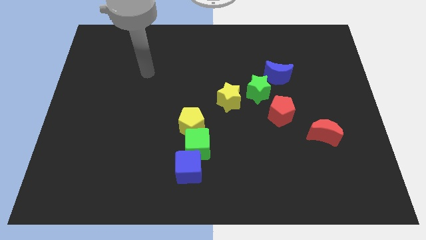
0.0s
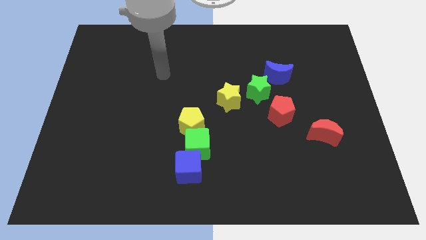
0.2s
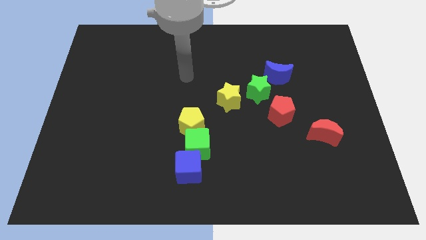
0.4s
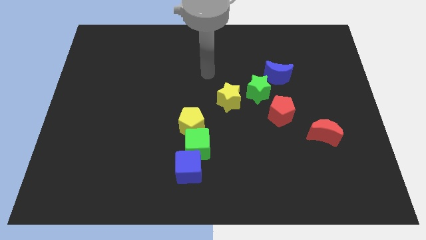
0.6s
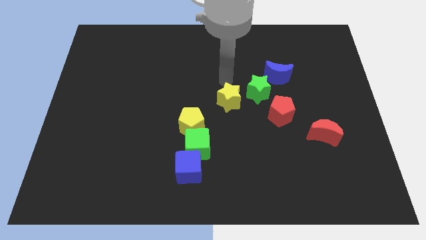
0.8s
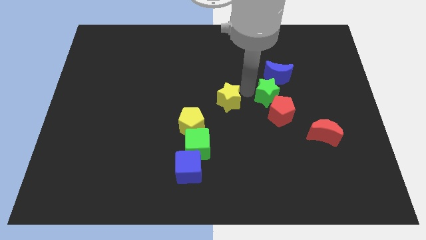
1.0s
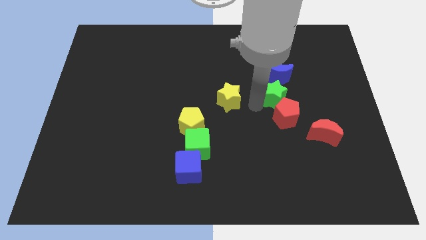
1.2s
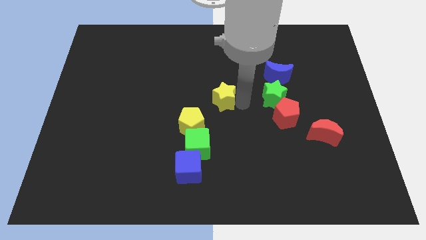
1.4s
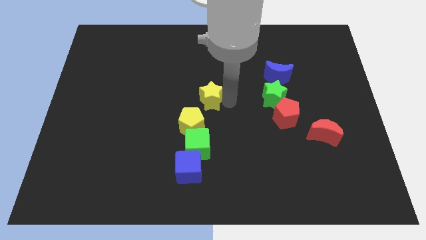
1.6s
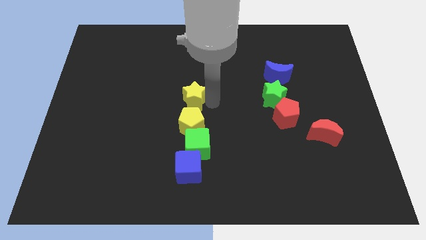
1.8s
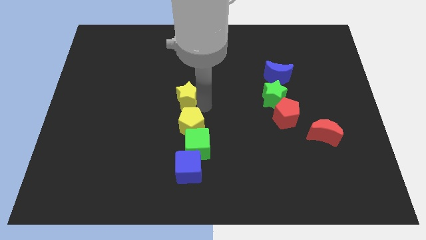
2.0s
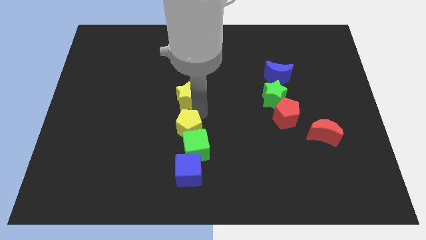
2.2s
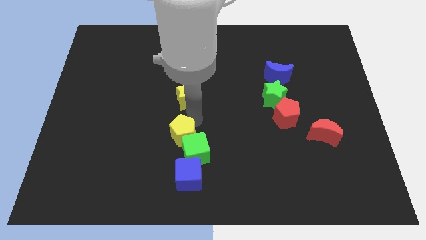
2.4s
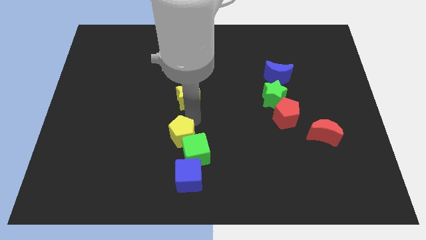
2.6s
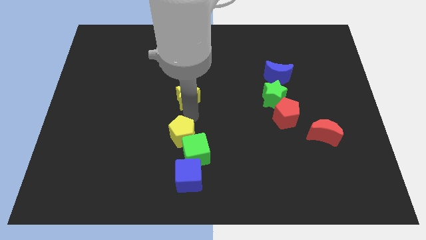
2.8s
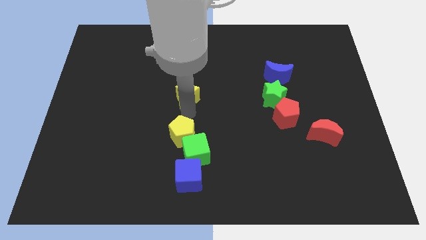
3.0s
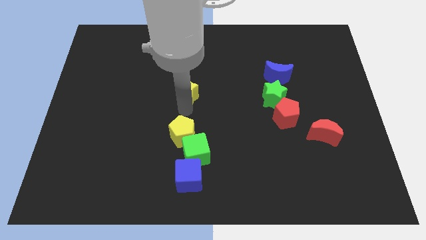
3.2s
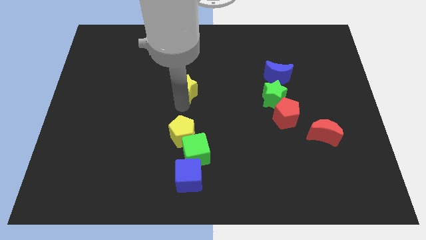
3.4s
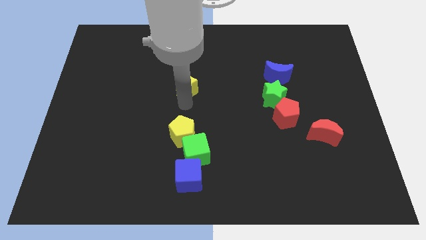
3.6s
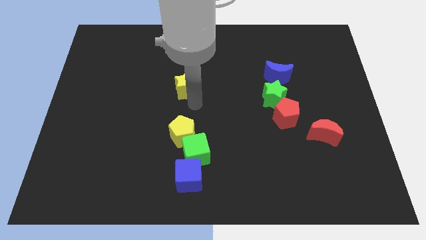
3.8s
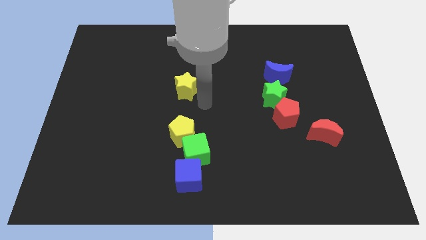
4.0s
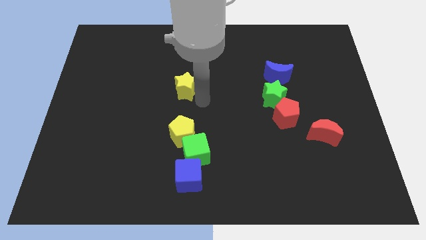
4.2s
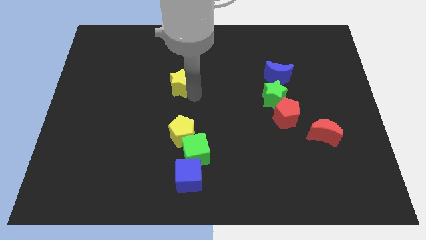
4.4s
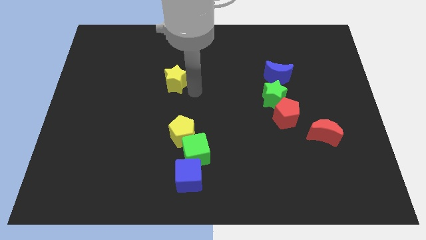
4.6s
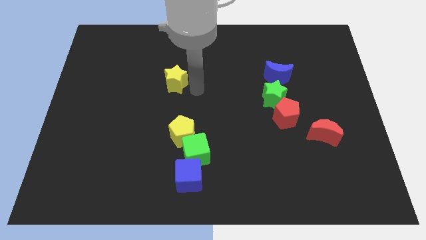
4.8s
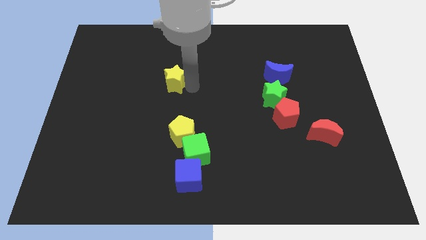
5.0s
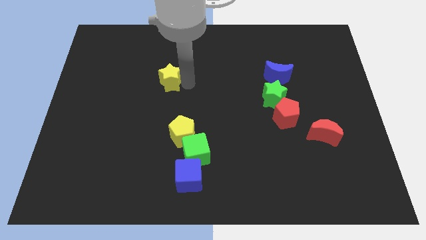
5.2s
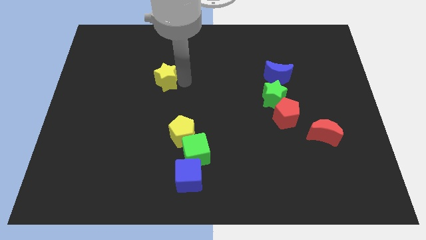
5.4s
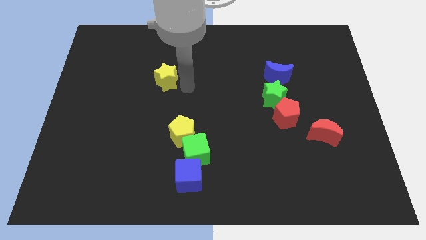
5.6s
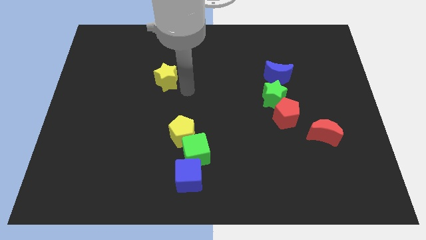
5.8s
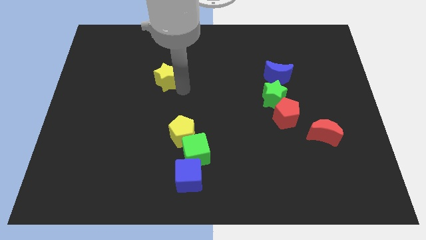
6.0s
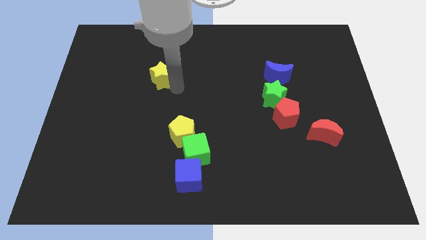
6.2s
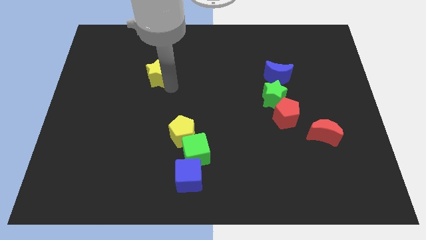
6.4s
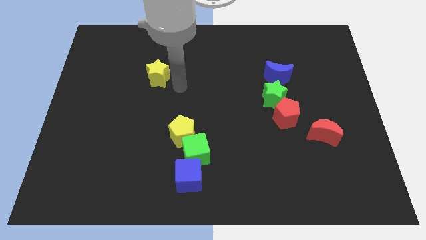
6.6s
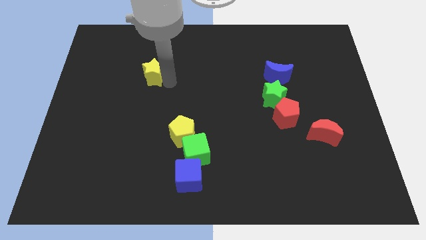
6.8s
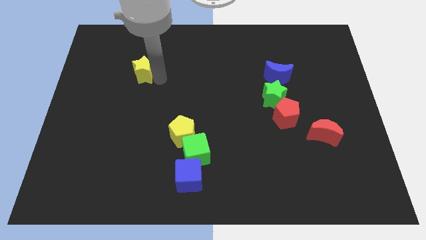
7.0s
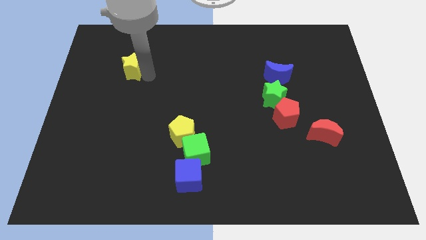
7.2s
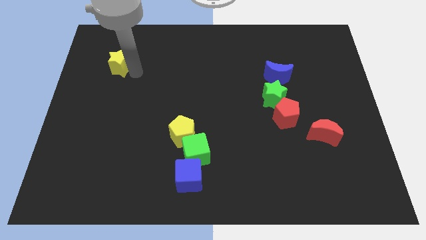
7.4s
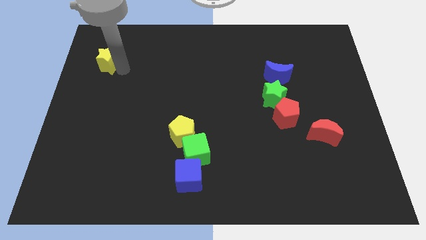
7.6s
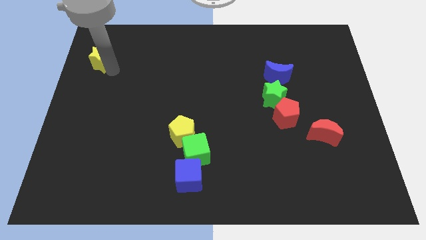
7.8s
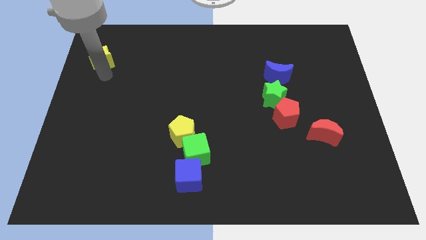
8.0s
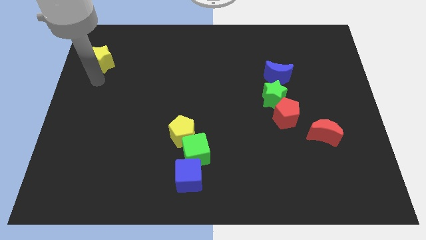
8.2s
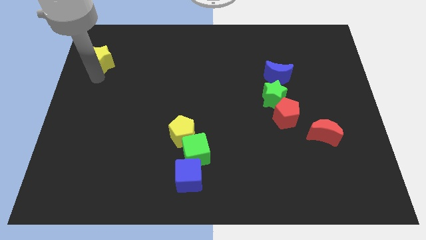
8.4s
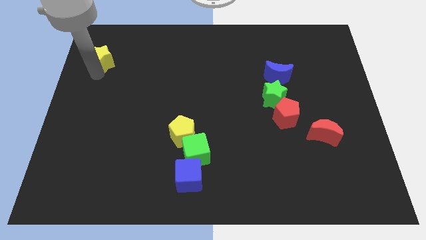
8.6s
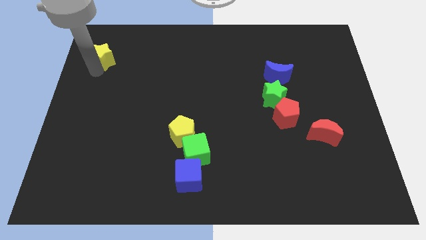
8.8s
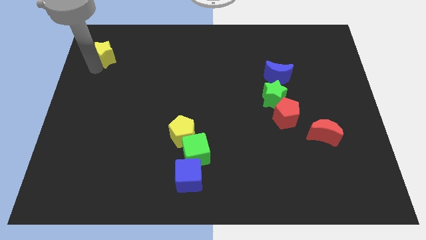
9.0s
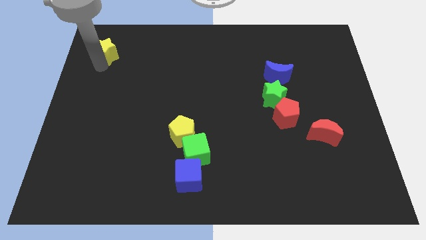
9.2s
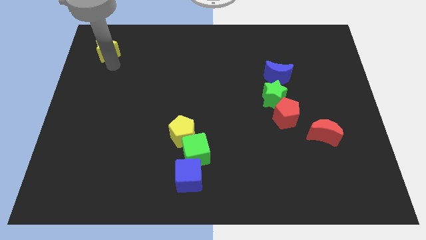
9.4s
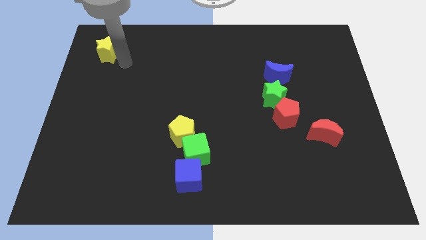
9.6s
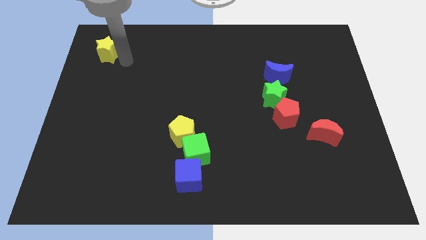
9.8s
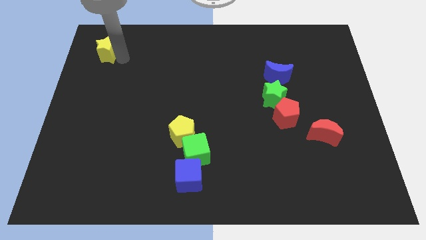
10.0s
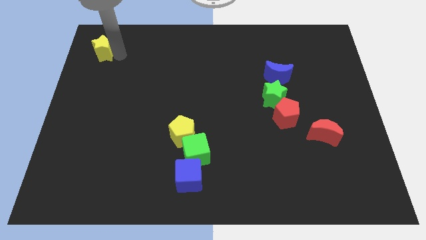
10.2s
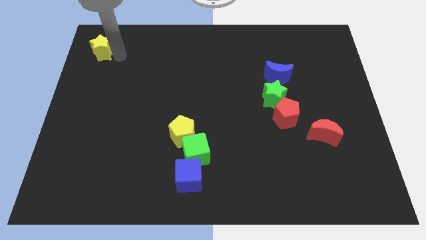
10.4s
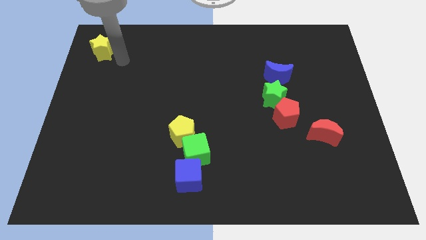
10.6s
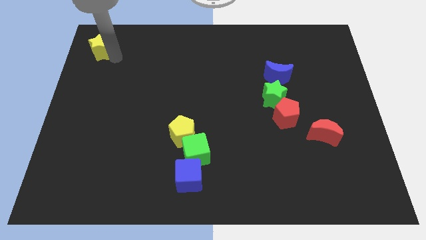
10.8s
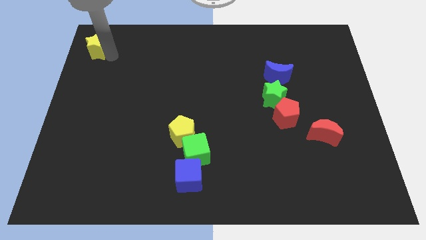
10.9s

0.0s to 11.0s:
push the yellow star to the upper left corner
